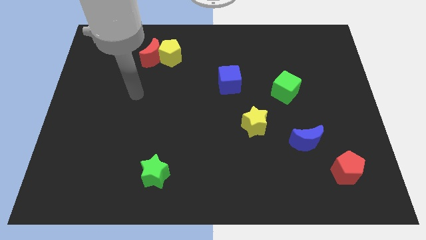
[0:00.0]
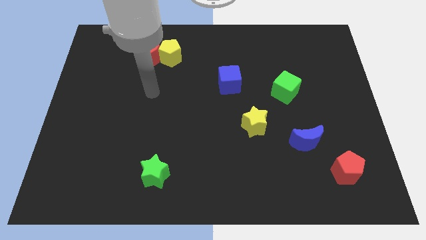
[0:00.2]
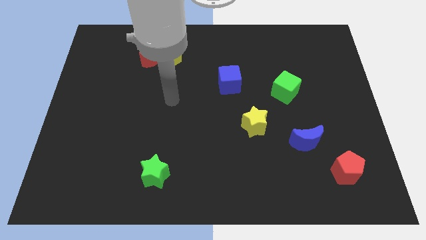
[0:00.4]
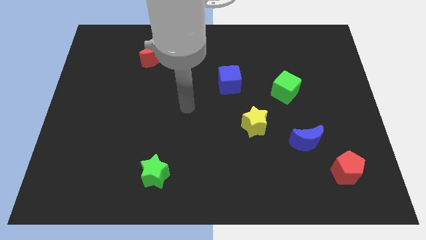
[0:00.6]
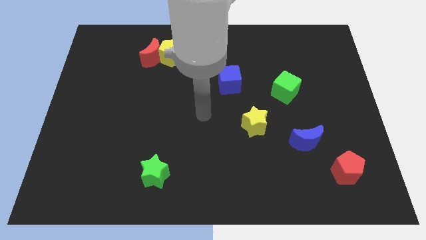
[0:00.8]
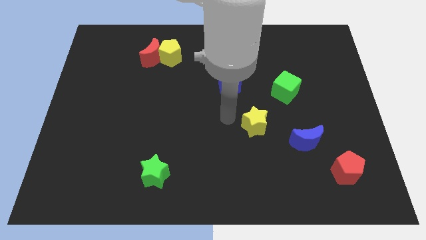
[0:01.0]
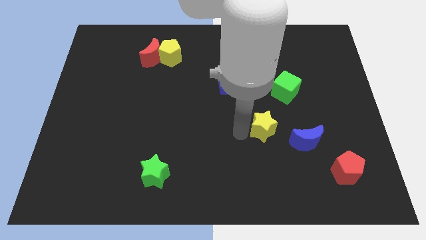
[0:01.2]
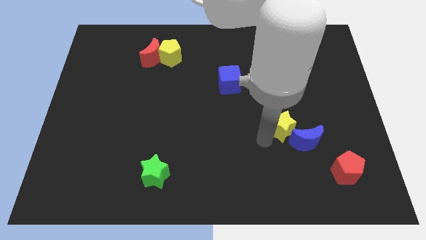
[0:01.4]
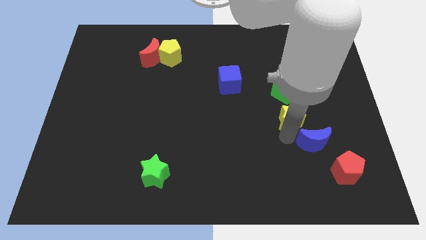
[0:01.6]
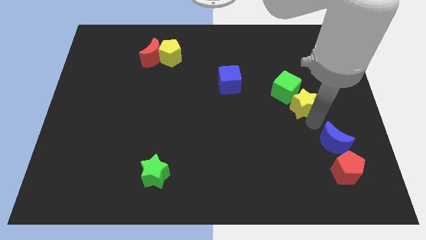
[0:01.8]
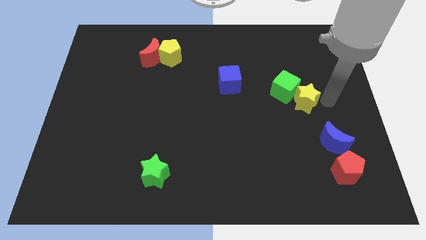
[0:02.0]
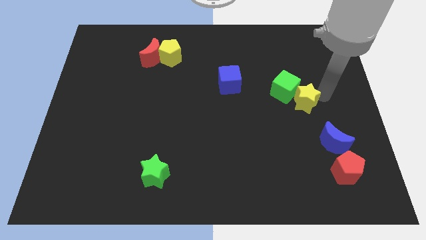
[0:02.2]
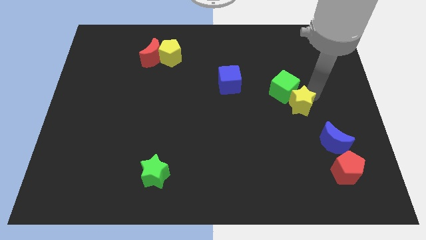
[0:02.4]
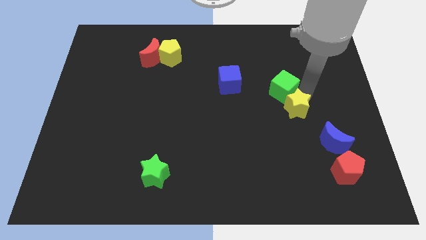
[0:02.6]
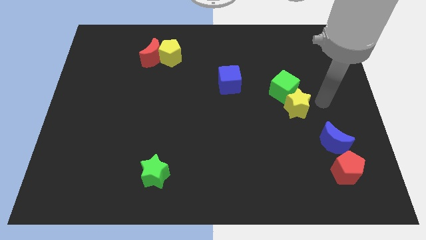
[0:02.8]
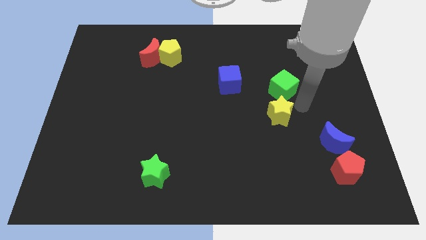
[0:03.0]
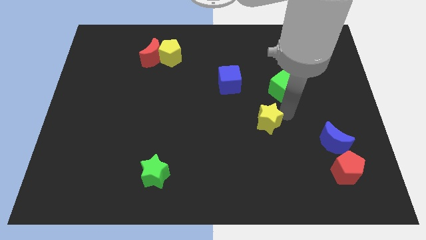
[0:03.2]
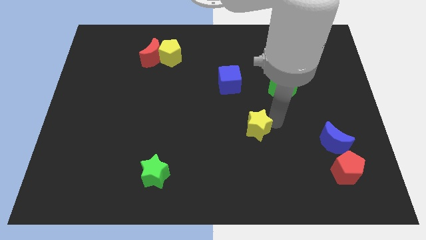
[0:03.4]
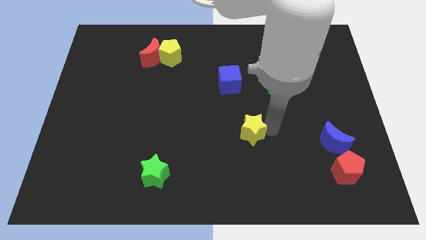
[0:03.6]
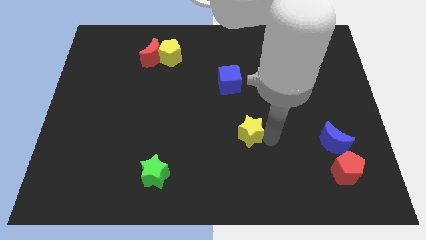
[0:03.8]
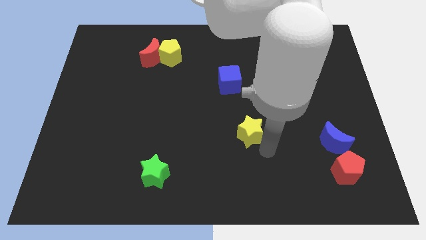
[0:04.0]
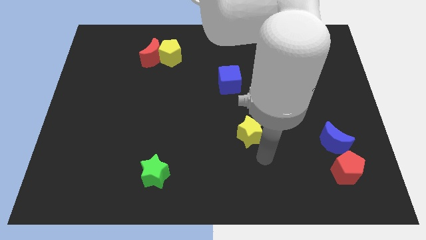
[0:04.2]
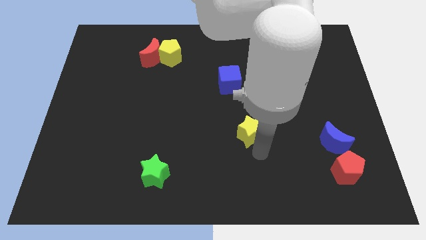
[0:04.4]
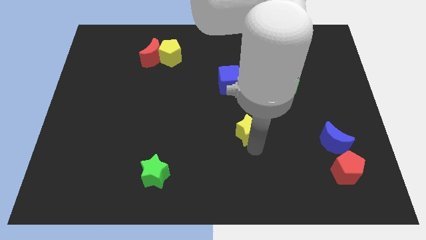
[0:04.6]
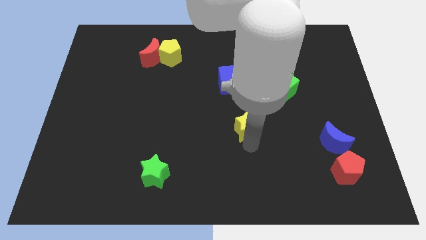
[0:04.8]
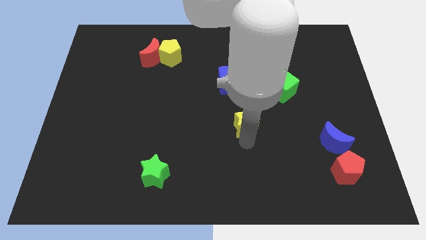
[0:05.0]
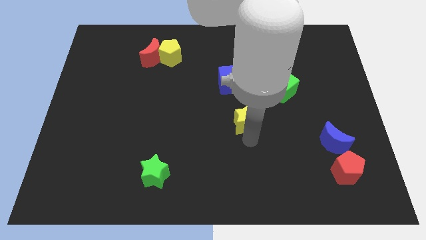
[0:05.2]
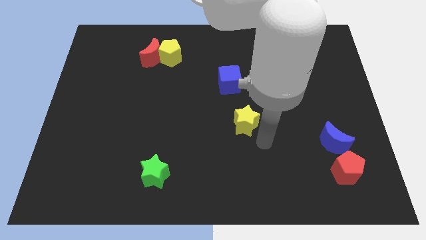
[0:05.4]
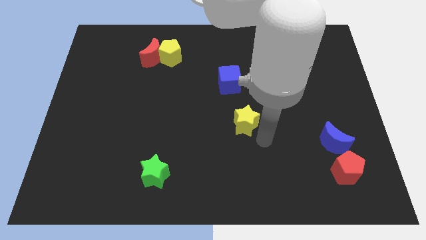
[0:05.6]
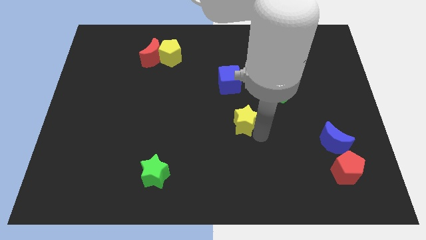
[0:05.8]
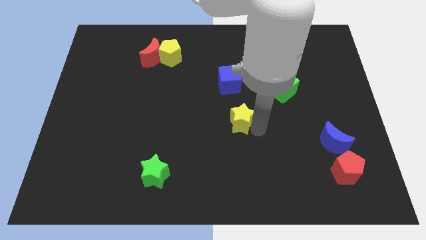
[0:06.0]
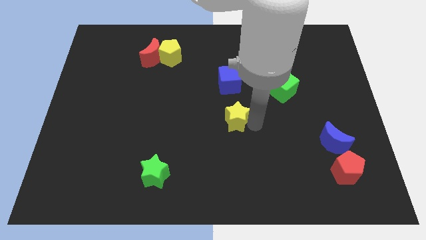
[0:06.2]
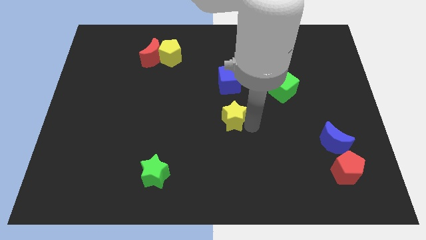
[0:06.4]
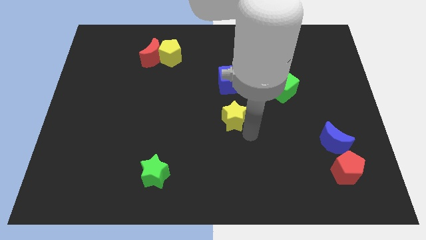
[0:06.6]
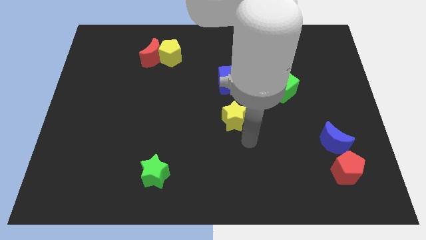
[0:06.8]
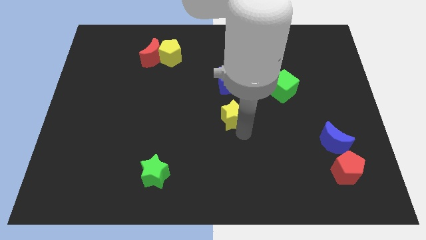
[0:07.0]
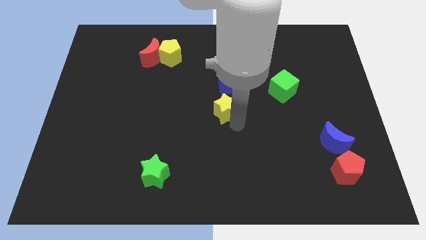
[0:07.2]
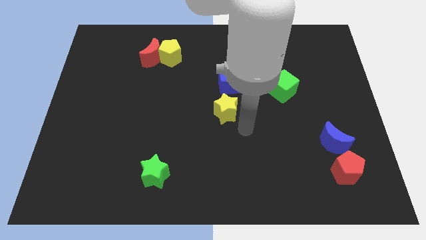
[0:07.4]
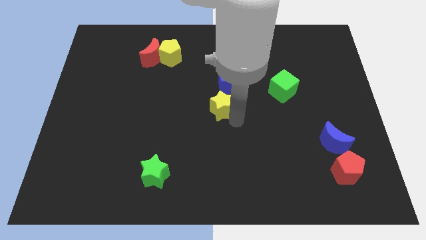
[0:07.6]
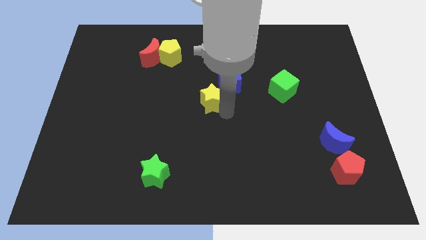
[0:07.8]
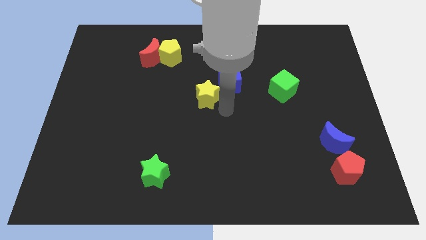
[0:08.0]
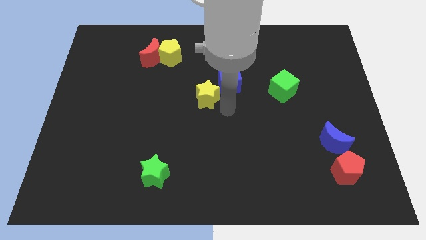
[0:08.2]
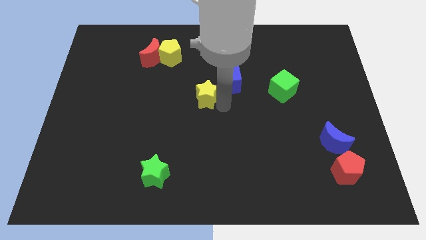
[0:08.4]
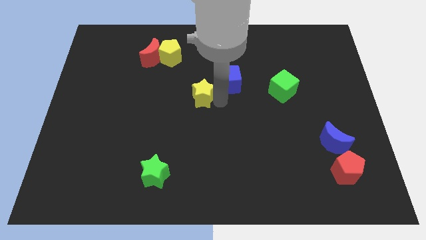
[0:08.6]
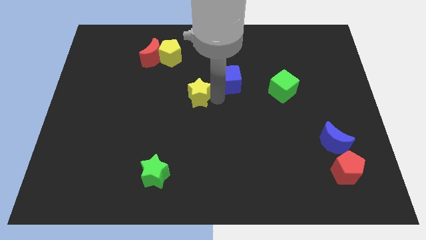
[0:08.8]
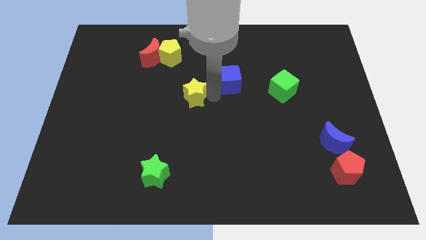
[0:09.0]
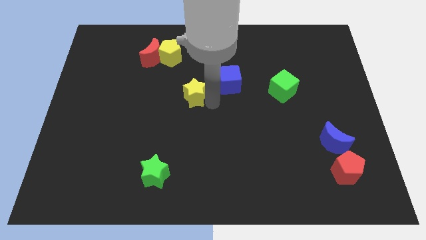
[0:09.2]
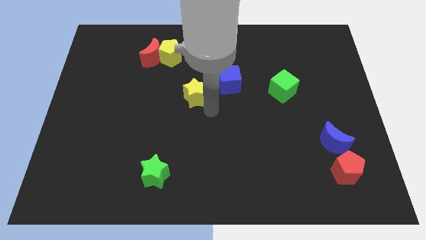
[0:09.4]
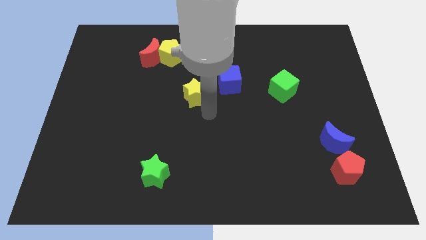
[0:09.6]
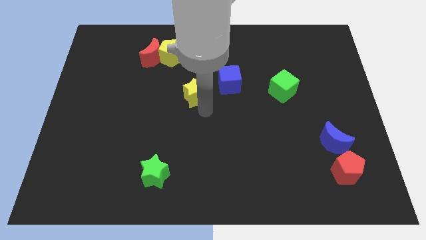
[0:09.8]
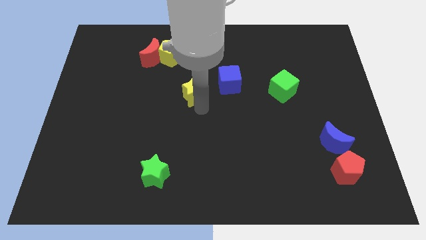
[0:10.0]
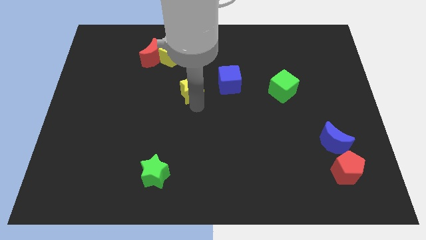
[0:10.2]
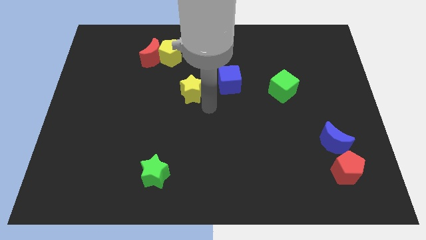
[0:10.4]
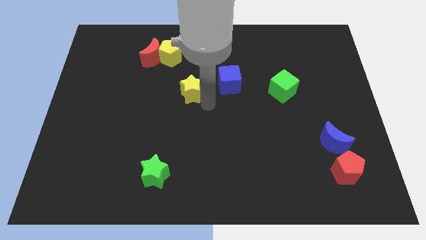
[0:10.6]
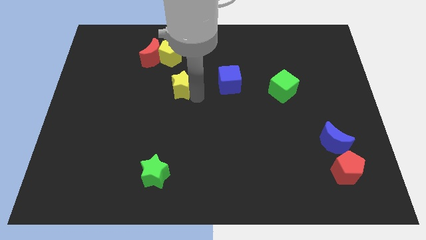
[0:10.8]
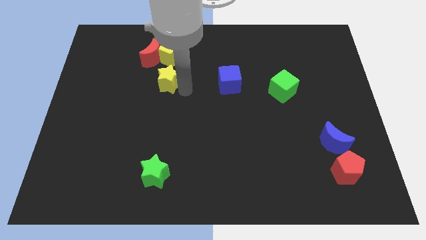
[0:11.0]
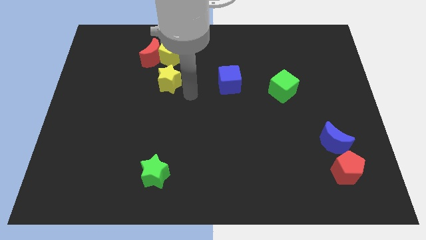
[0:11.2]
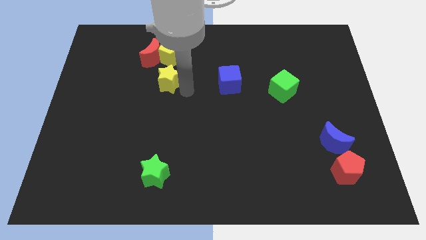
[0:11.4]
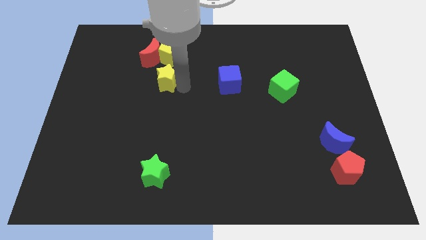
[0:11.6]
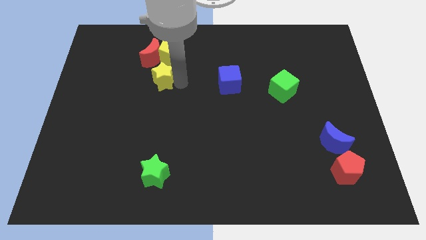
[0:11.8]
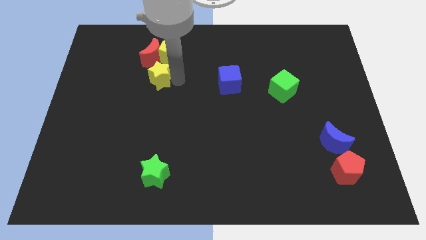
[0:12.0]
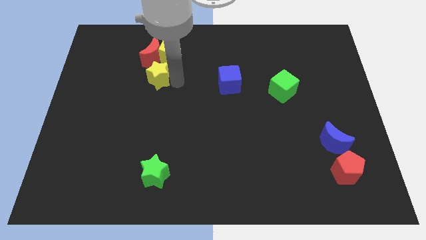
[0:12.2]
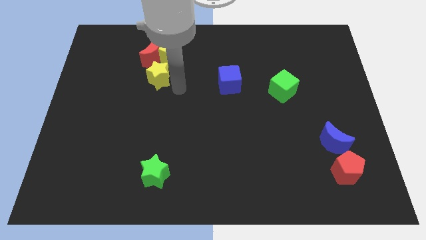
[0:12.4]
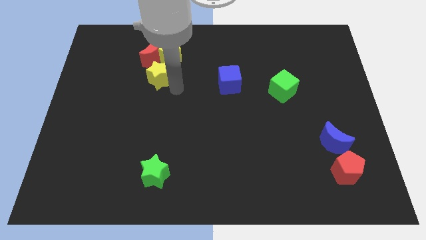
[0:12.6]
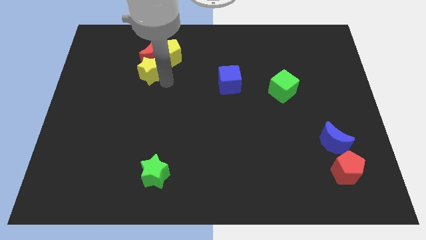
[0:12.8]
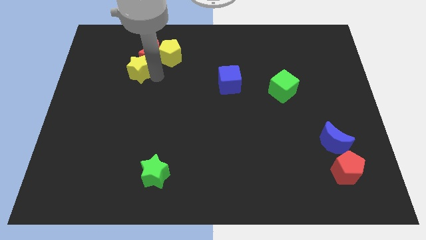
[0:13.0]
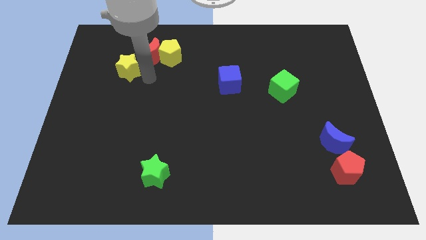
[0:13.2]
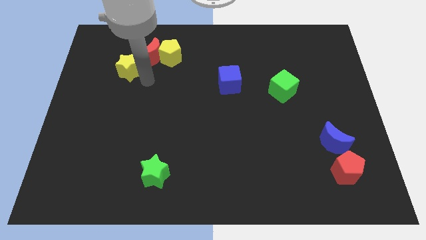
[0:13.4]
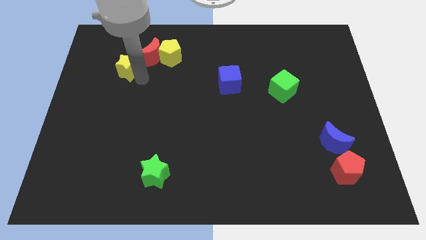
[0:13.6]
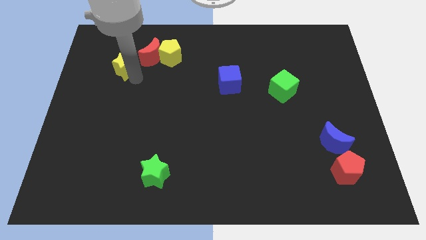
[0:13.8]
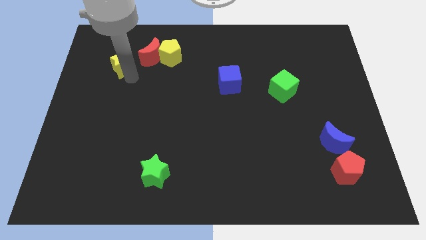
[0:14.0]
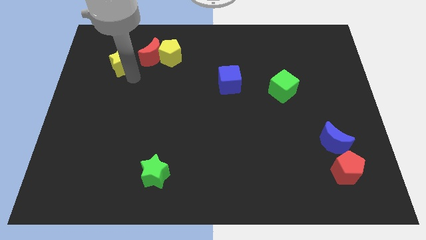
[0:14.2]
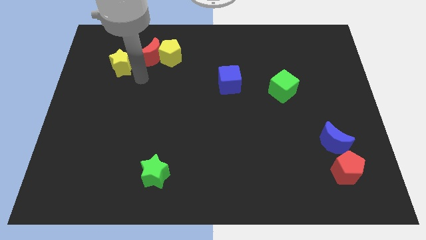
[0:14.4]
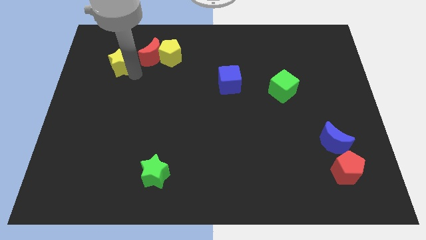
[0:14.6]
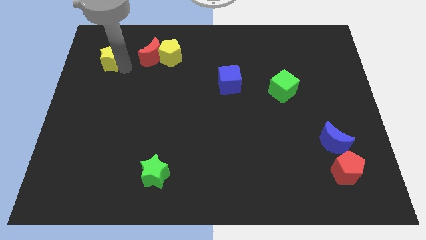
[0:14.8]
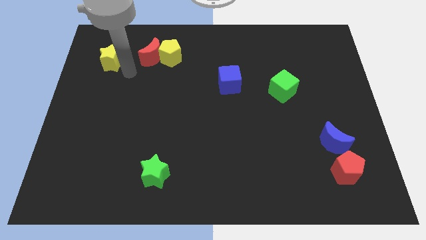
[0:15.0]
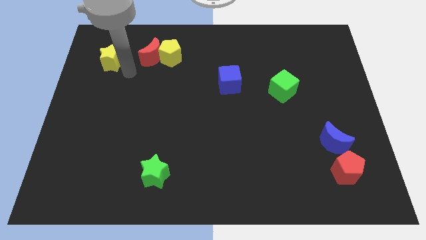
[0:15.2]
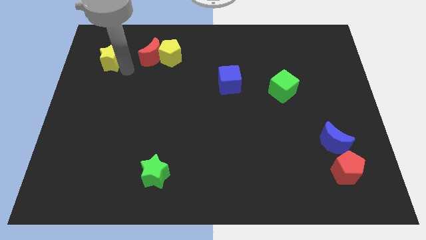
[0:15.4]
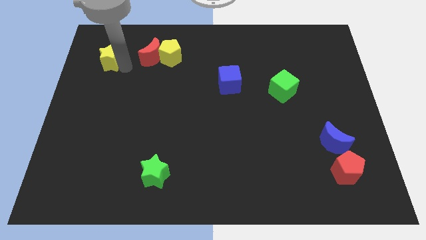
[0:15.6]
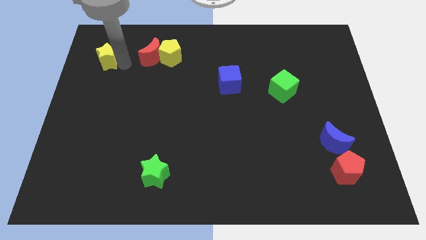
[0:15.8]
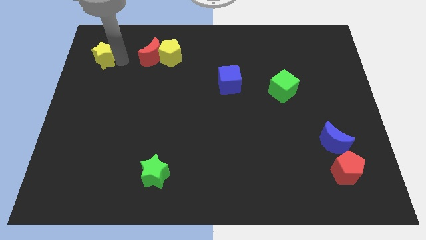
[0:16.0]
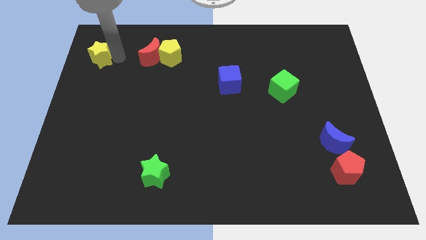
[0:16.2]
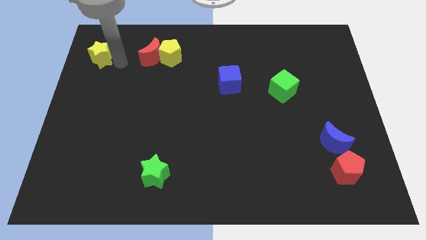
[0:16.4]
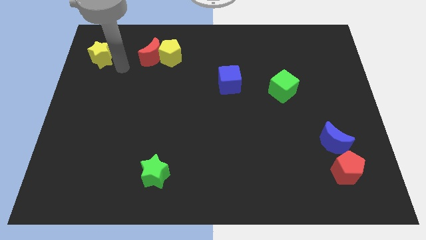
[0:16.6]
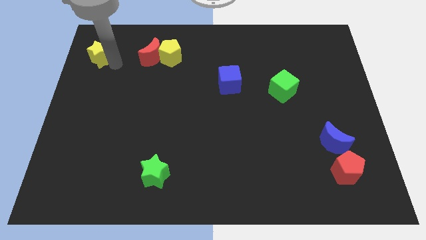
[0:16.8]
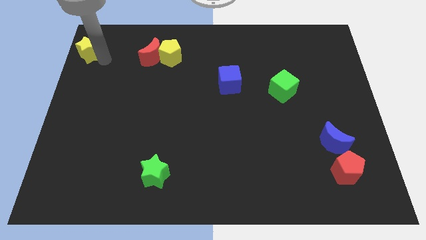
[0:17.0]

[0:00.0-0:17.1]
slide the yellow star to the top left of the board
